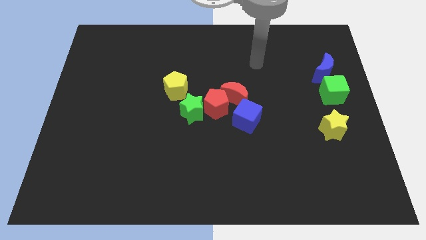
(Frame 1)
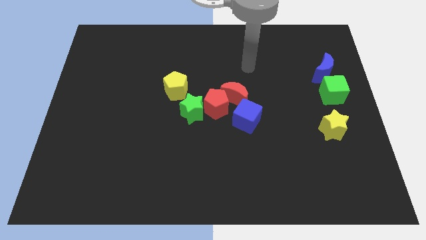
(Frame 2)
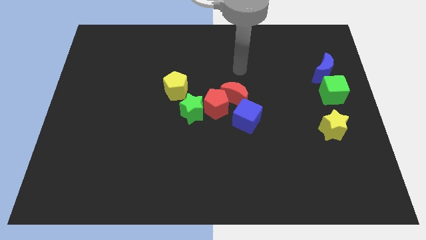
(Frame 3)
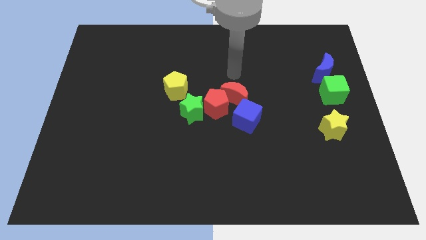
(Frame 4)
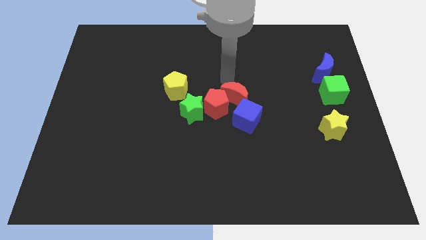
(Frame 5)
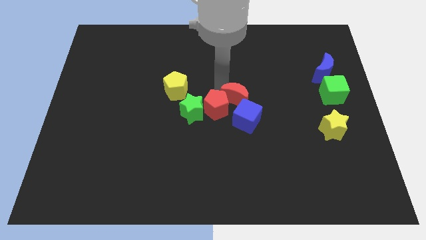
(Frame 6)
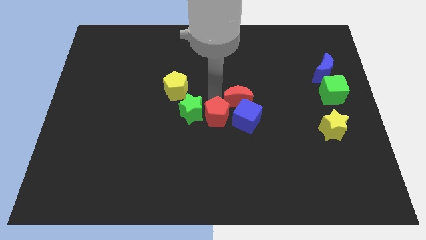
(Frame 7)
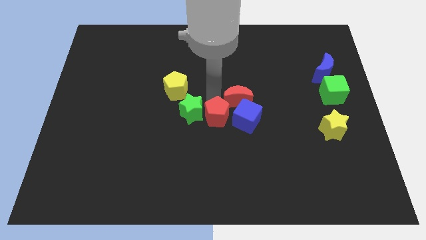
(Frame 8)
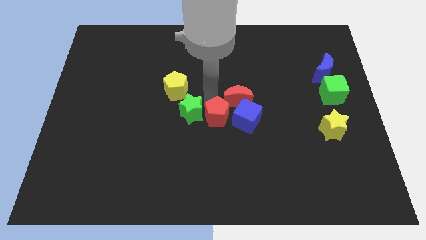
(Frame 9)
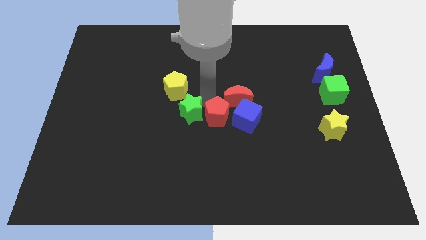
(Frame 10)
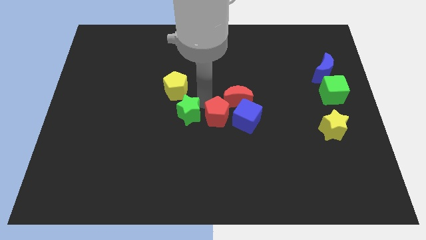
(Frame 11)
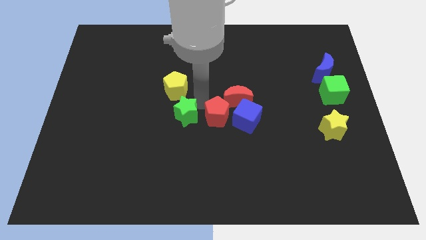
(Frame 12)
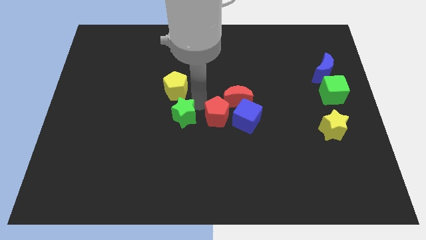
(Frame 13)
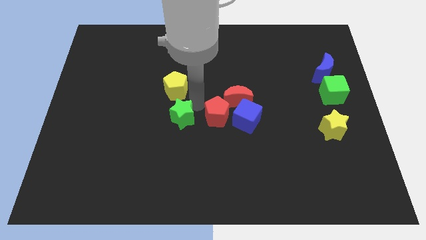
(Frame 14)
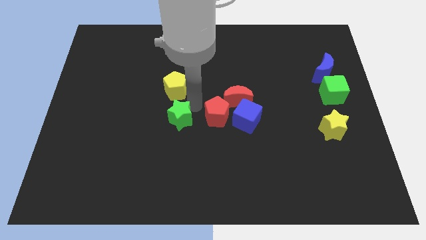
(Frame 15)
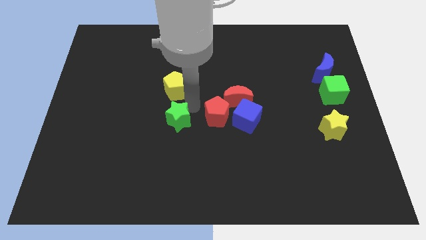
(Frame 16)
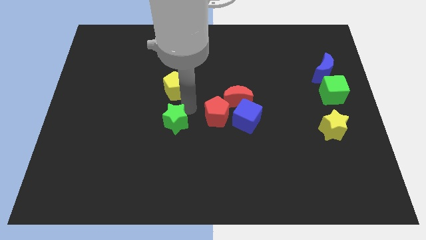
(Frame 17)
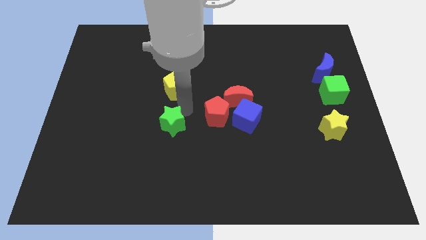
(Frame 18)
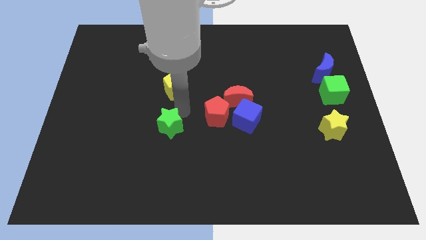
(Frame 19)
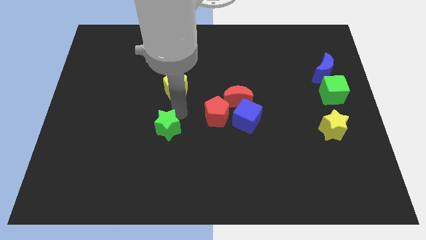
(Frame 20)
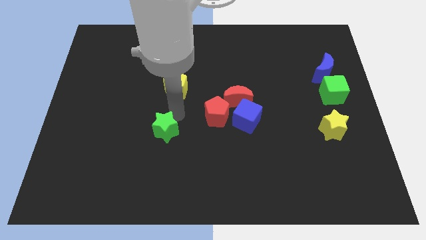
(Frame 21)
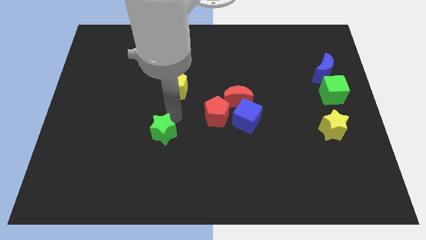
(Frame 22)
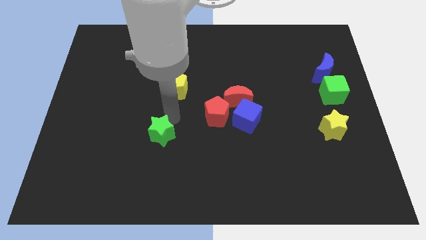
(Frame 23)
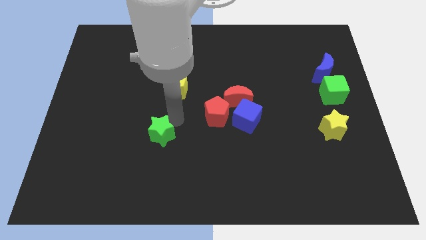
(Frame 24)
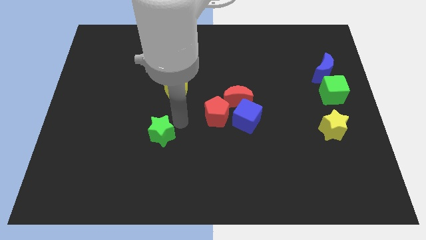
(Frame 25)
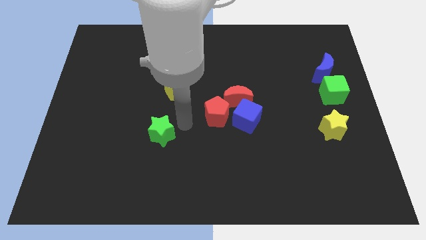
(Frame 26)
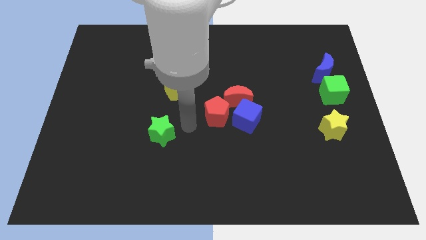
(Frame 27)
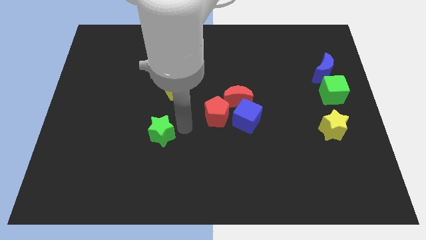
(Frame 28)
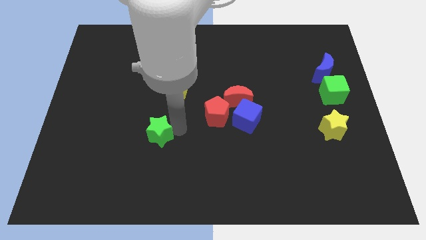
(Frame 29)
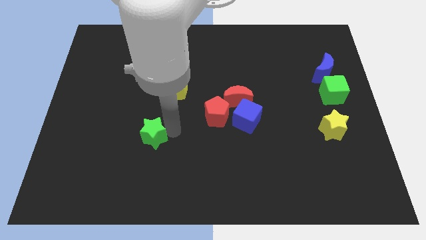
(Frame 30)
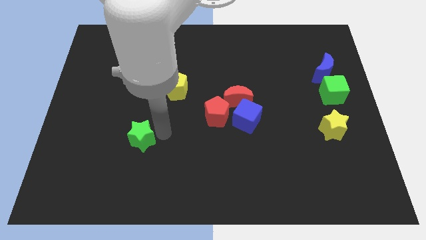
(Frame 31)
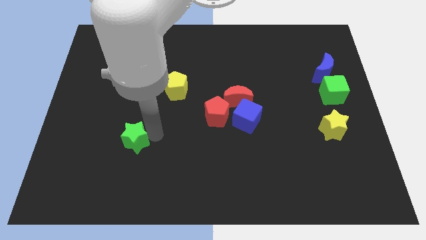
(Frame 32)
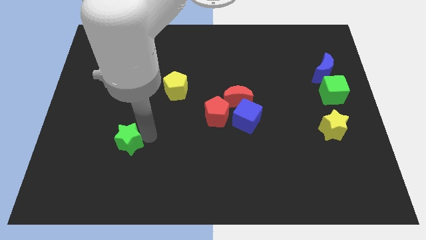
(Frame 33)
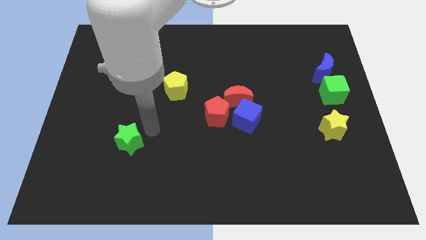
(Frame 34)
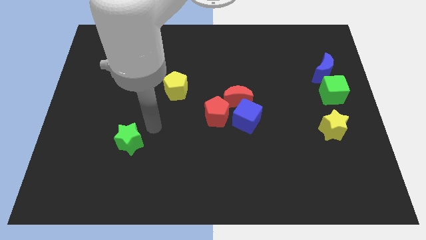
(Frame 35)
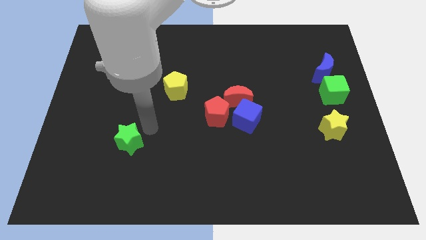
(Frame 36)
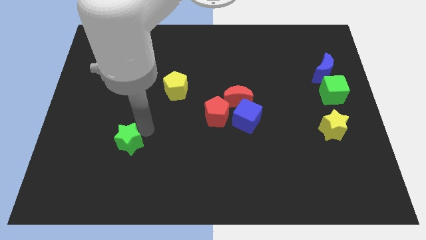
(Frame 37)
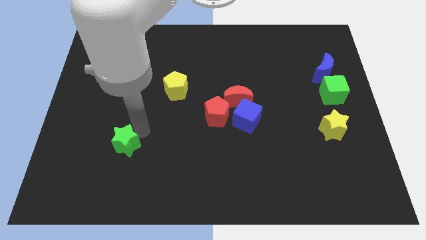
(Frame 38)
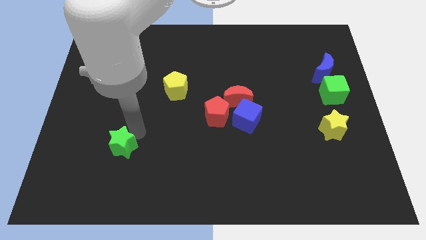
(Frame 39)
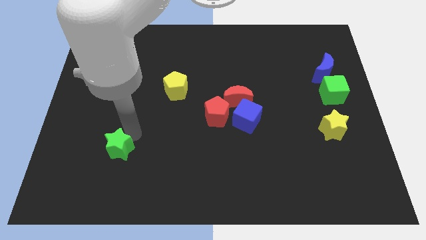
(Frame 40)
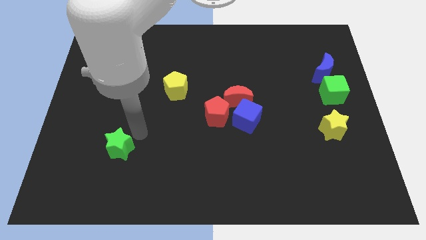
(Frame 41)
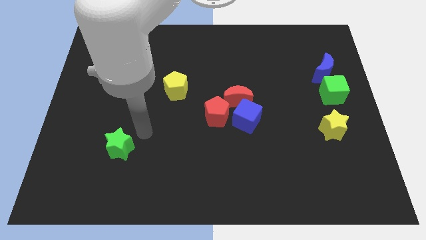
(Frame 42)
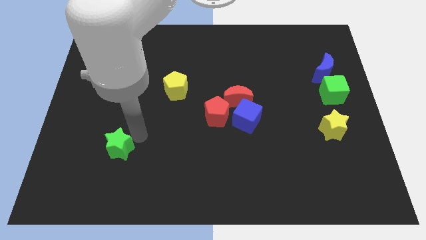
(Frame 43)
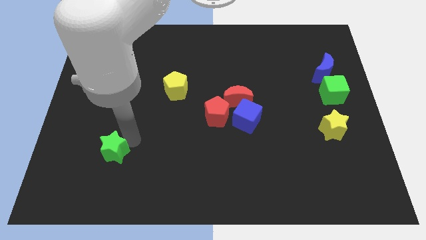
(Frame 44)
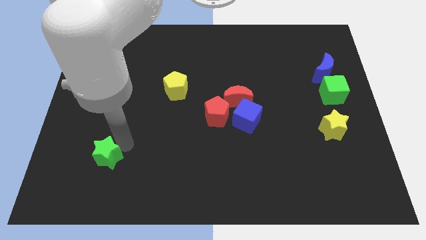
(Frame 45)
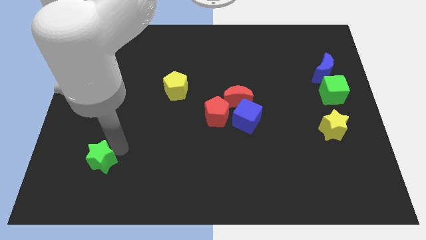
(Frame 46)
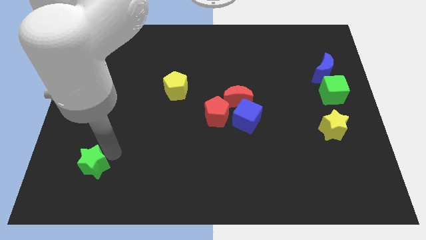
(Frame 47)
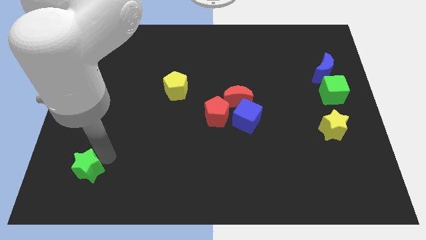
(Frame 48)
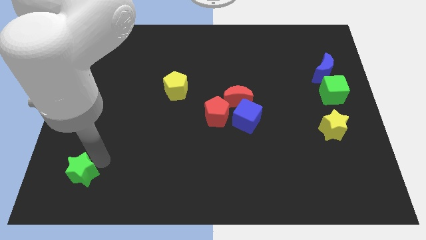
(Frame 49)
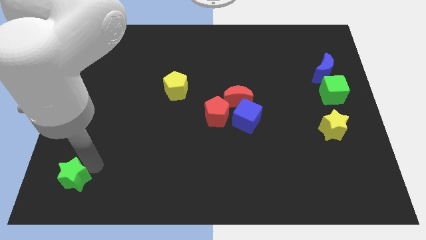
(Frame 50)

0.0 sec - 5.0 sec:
move the green star to the bottom left corner

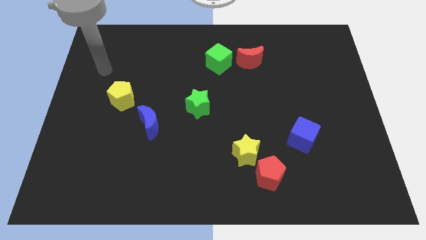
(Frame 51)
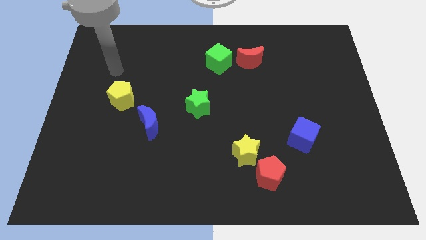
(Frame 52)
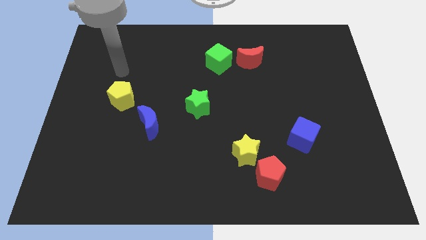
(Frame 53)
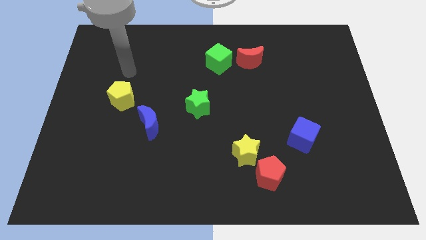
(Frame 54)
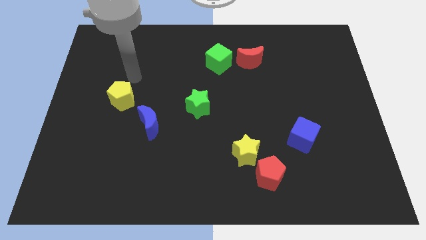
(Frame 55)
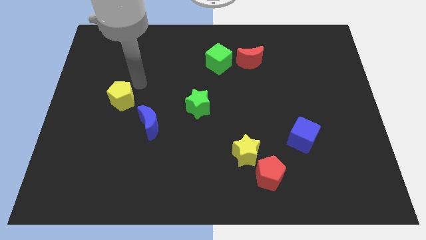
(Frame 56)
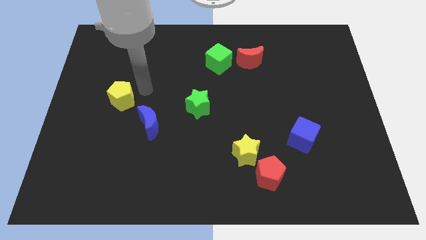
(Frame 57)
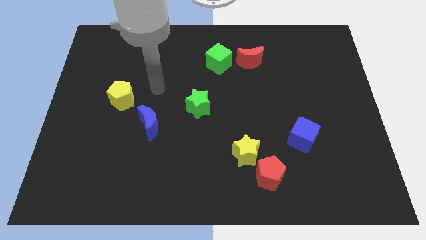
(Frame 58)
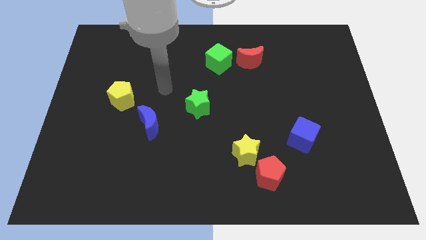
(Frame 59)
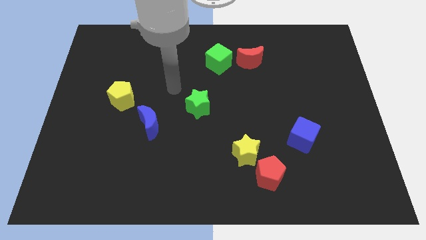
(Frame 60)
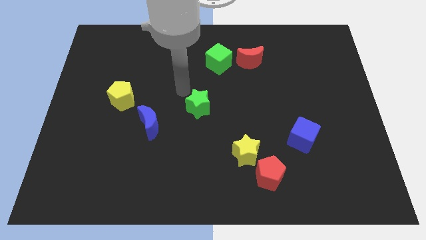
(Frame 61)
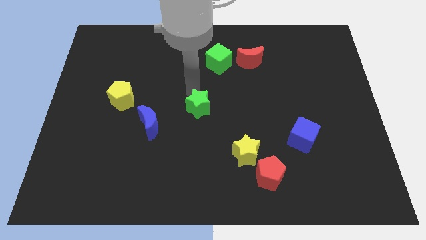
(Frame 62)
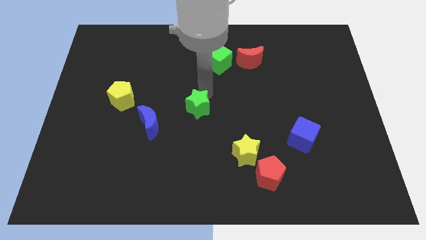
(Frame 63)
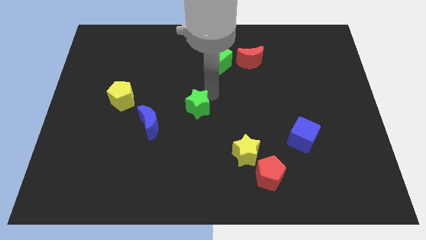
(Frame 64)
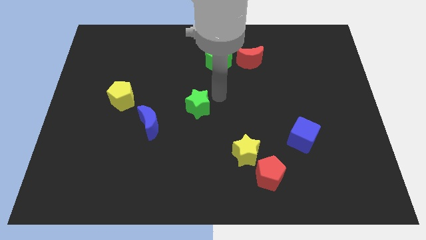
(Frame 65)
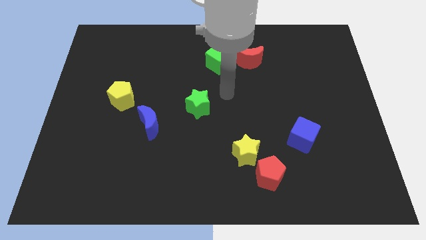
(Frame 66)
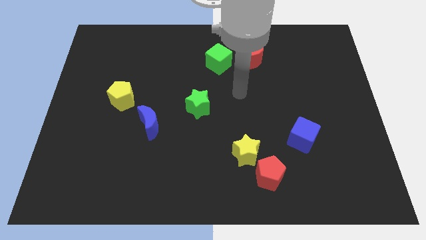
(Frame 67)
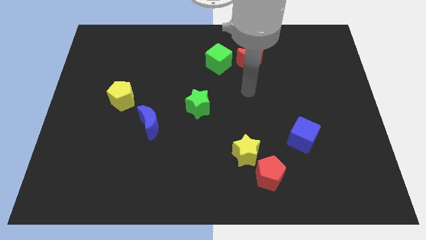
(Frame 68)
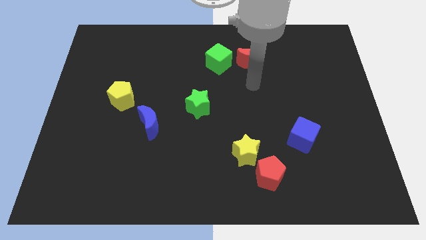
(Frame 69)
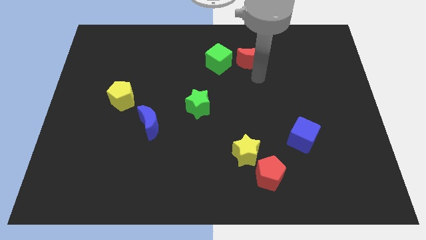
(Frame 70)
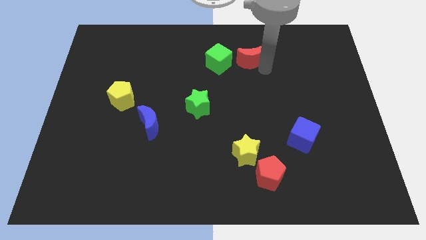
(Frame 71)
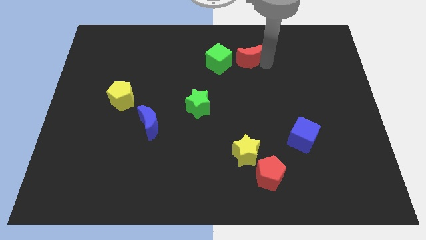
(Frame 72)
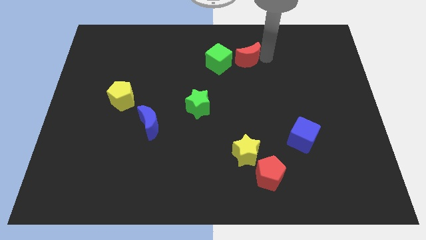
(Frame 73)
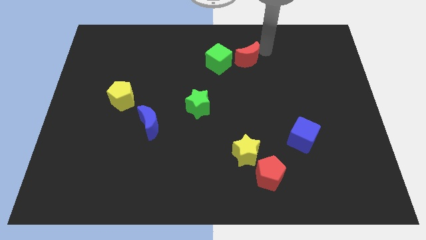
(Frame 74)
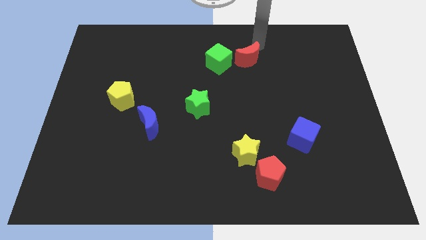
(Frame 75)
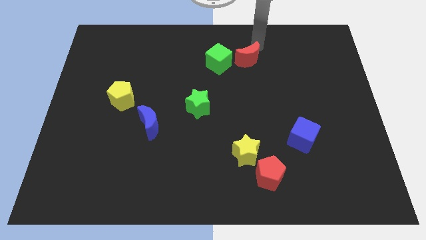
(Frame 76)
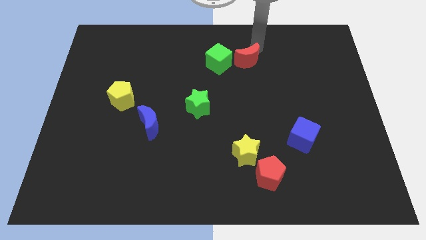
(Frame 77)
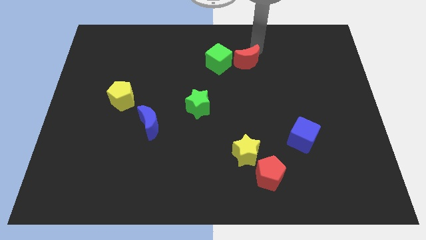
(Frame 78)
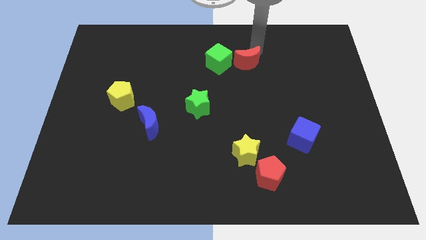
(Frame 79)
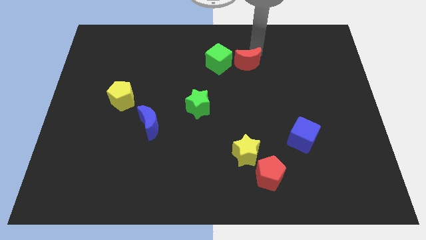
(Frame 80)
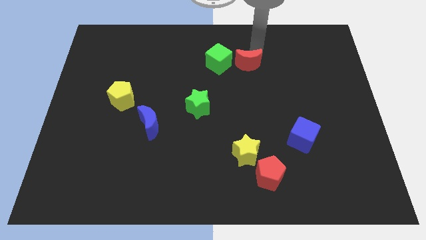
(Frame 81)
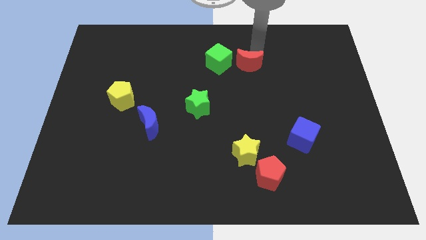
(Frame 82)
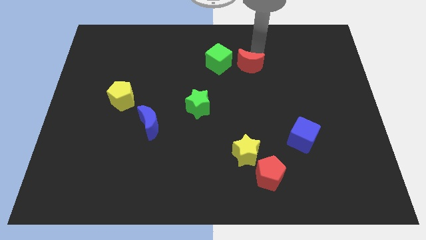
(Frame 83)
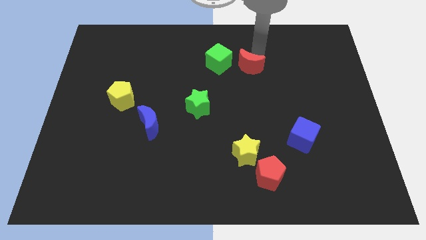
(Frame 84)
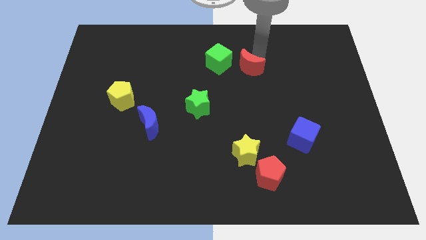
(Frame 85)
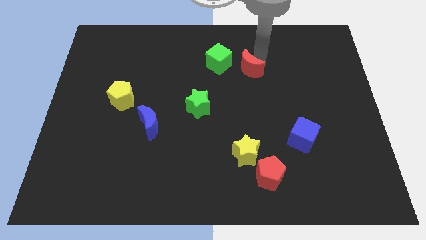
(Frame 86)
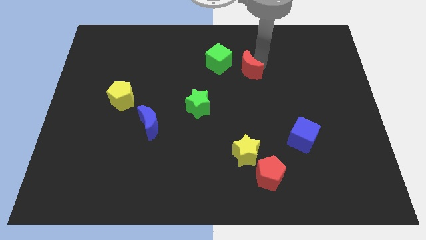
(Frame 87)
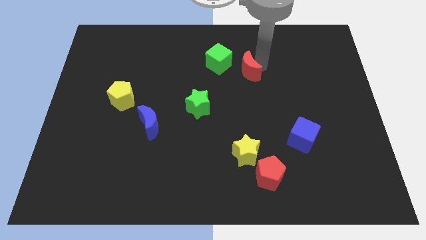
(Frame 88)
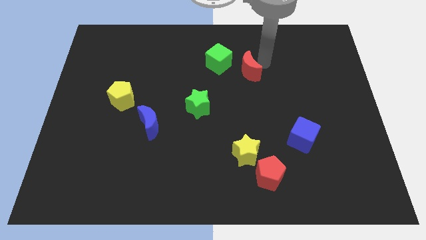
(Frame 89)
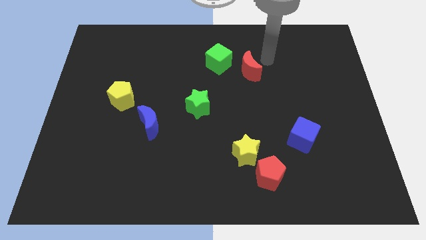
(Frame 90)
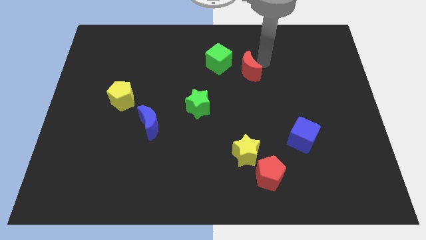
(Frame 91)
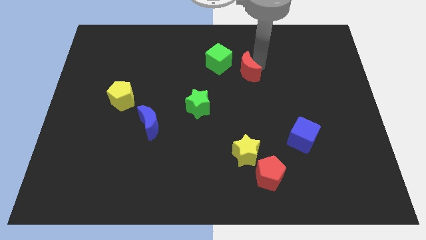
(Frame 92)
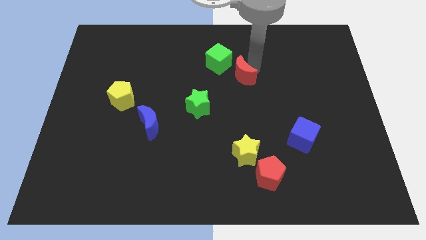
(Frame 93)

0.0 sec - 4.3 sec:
push the red moon to the middle
